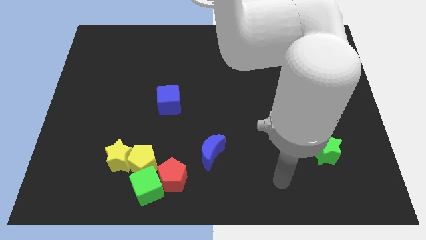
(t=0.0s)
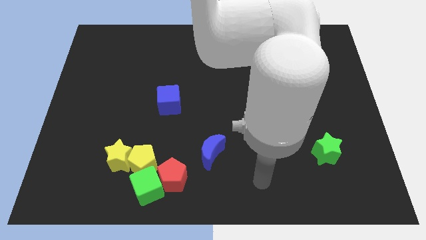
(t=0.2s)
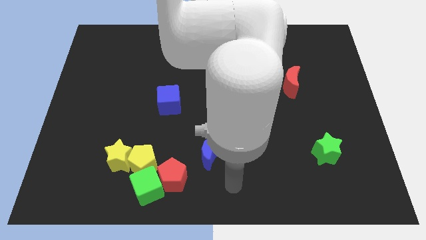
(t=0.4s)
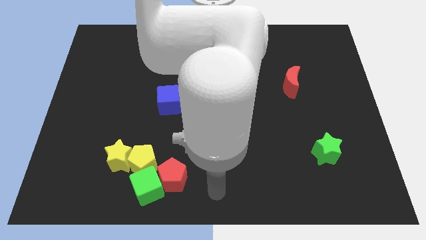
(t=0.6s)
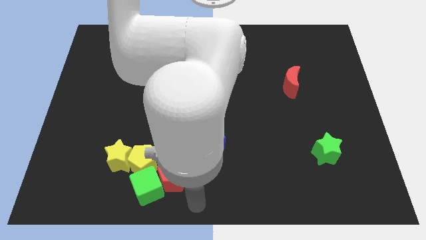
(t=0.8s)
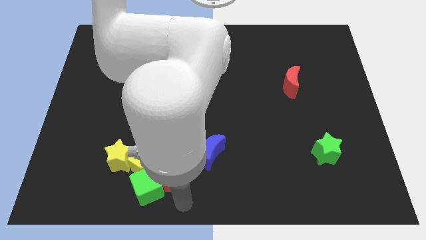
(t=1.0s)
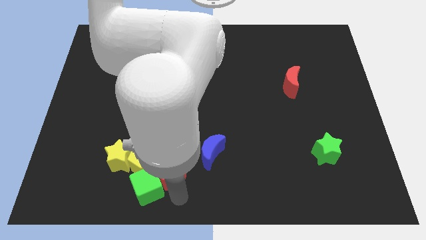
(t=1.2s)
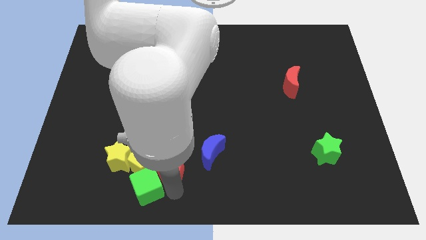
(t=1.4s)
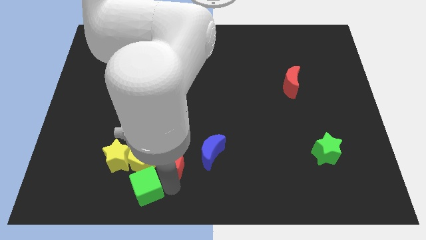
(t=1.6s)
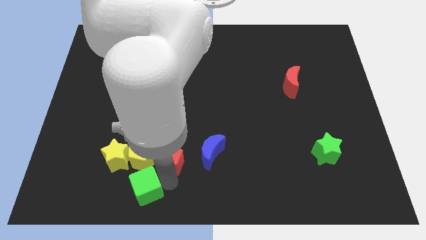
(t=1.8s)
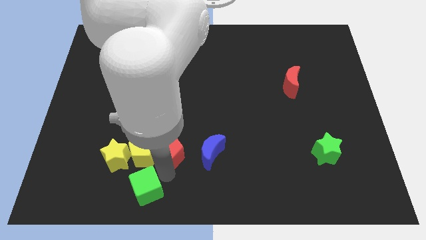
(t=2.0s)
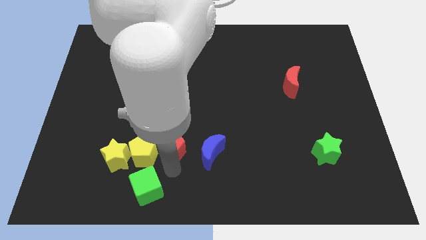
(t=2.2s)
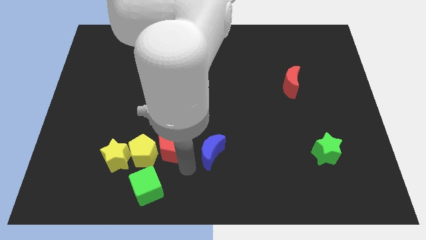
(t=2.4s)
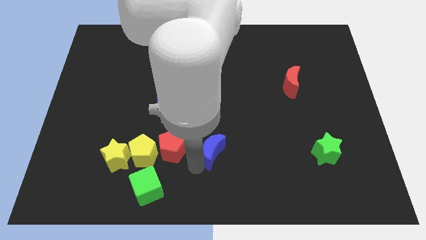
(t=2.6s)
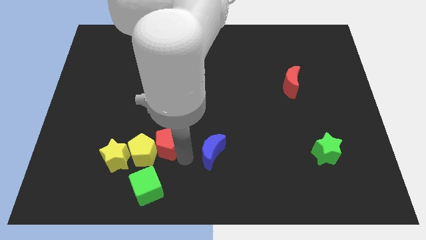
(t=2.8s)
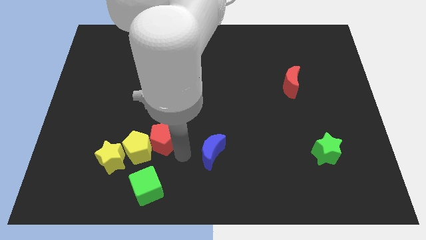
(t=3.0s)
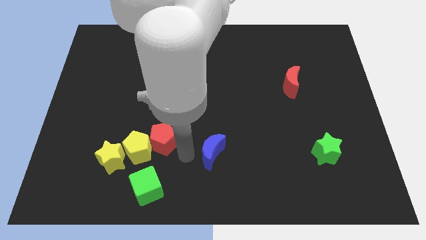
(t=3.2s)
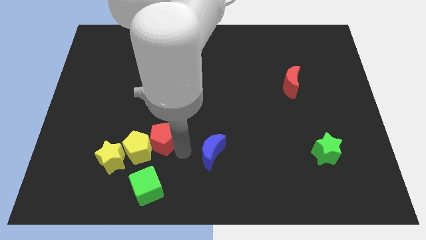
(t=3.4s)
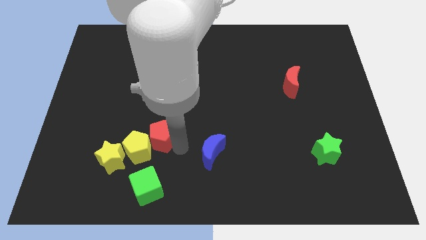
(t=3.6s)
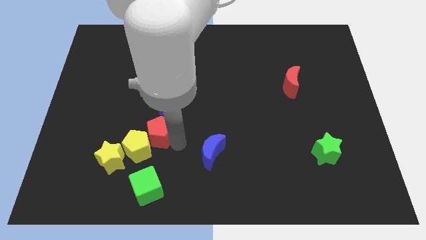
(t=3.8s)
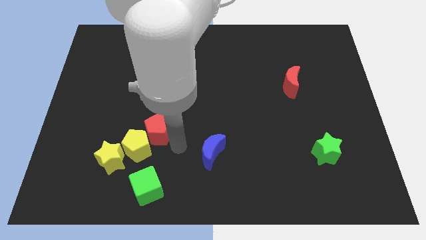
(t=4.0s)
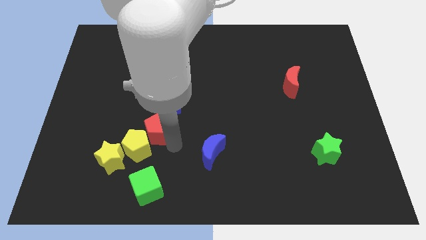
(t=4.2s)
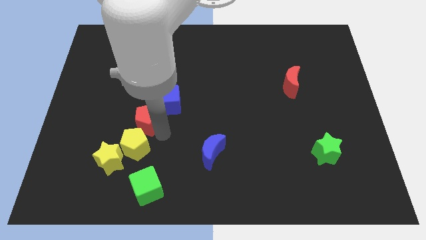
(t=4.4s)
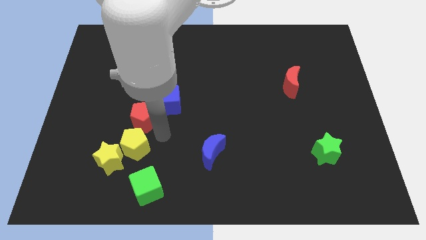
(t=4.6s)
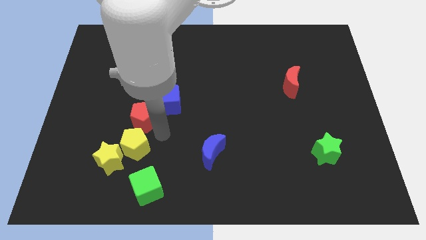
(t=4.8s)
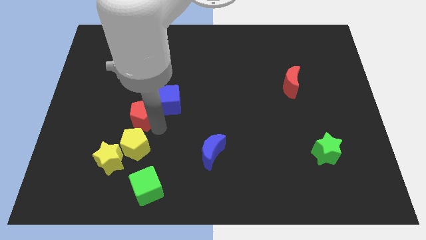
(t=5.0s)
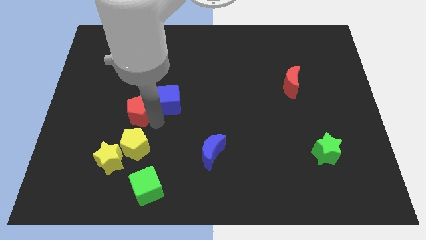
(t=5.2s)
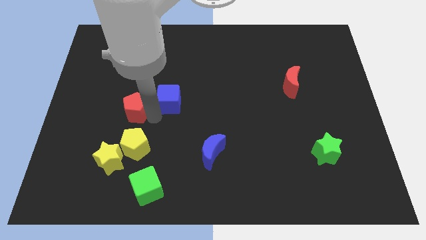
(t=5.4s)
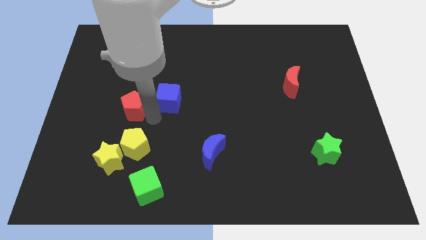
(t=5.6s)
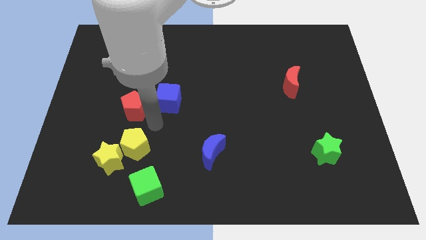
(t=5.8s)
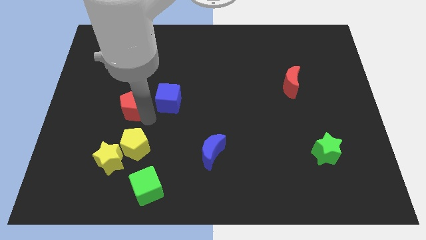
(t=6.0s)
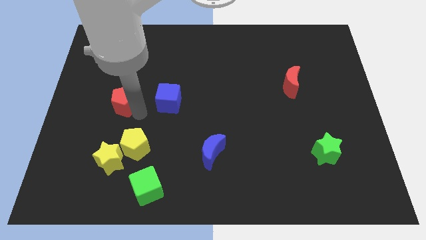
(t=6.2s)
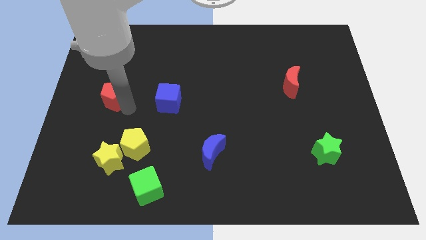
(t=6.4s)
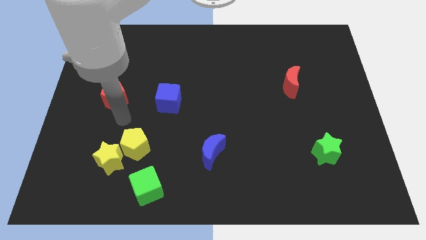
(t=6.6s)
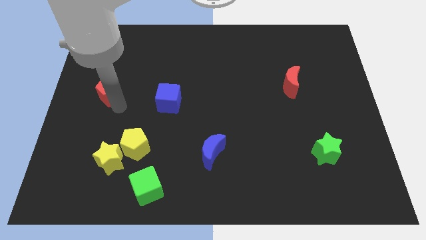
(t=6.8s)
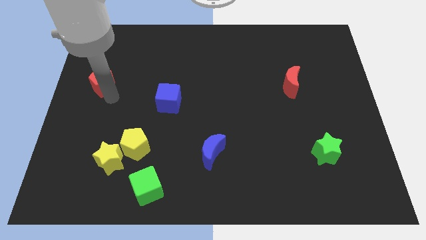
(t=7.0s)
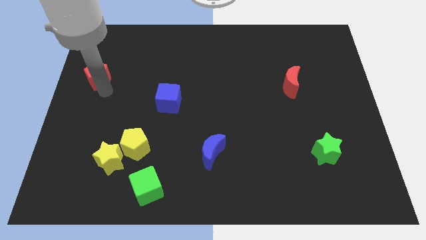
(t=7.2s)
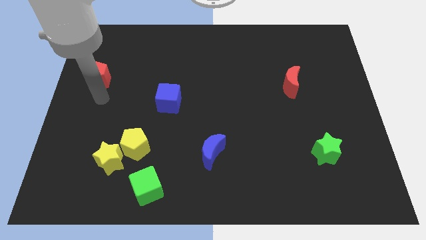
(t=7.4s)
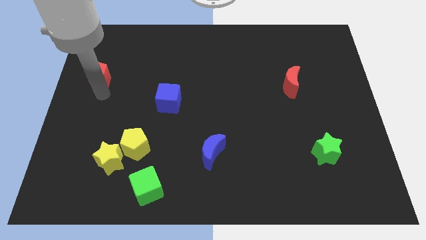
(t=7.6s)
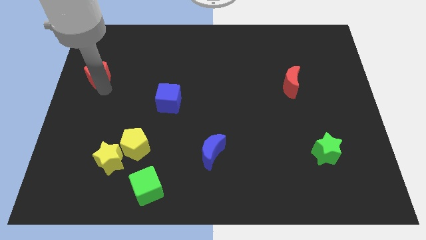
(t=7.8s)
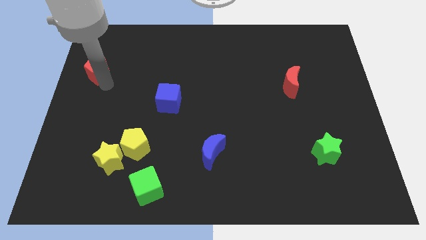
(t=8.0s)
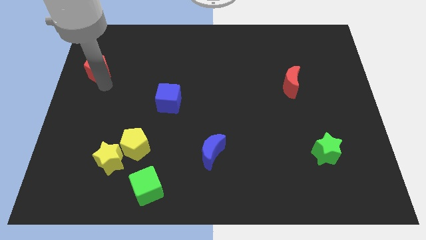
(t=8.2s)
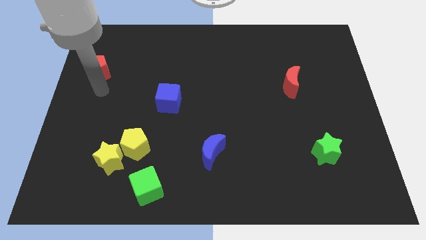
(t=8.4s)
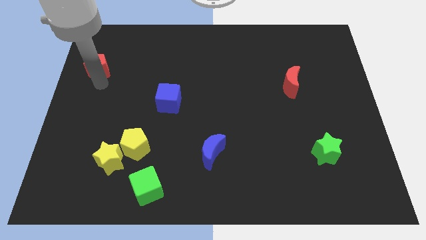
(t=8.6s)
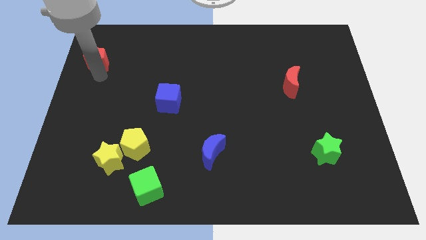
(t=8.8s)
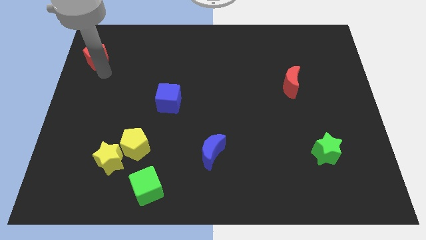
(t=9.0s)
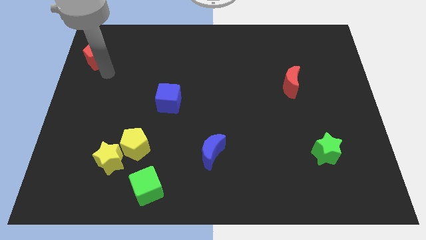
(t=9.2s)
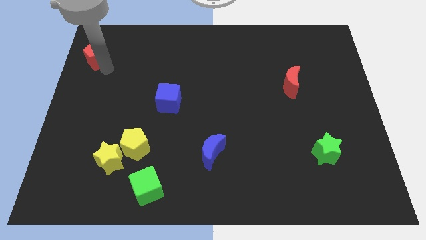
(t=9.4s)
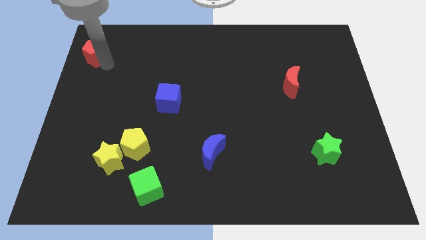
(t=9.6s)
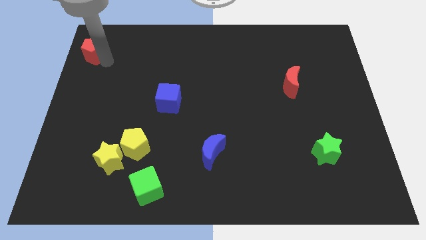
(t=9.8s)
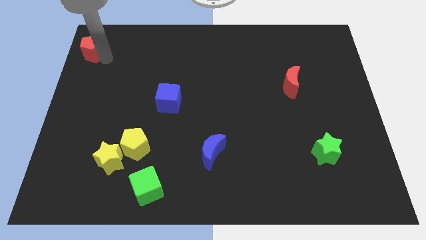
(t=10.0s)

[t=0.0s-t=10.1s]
move the red pentagon to the top left

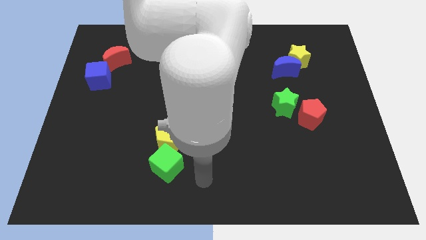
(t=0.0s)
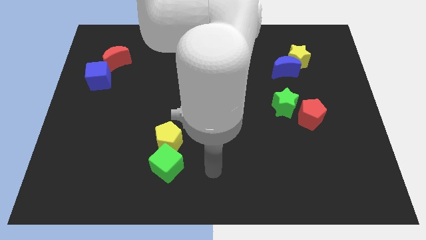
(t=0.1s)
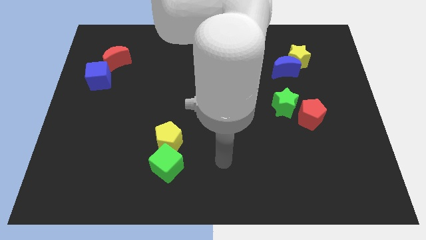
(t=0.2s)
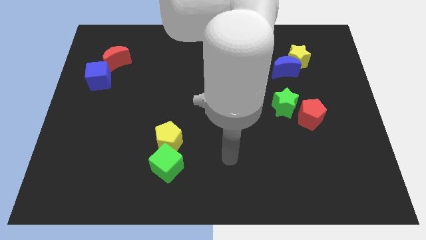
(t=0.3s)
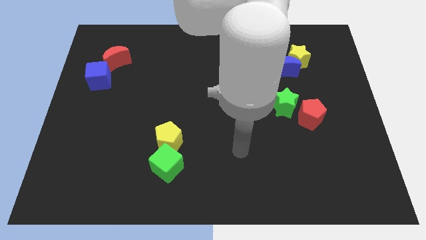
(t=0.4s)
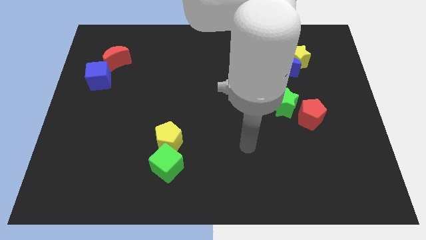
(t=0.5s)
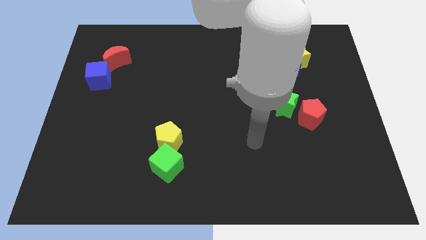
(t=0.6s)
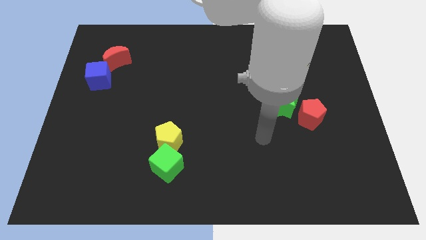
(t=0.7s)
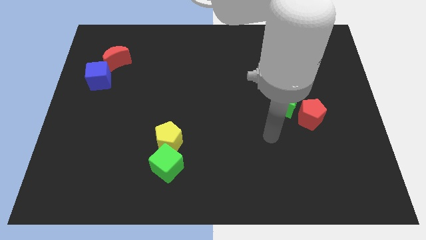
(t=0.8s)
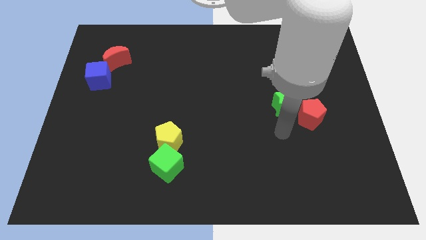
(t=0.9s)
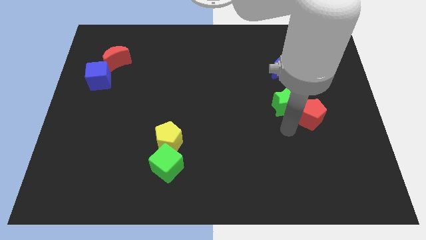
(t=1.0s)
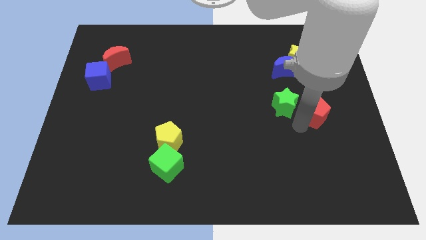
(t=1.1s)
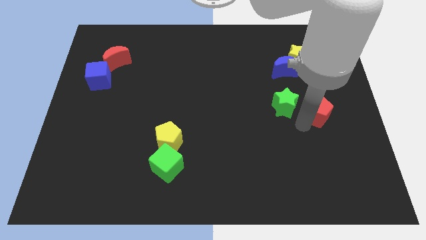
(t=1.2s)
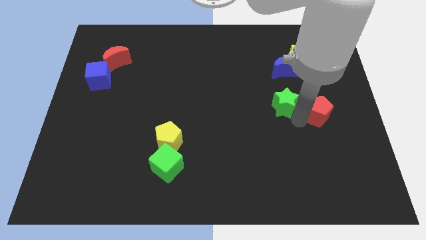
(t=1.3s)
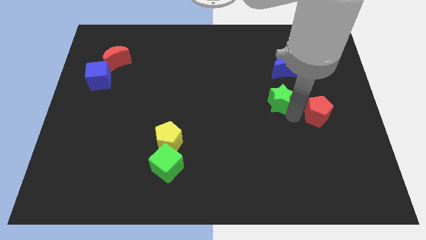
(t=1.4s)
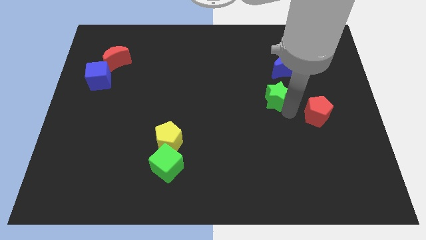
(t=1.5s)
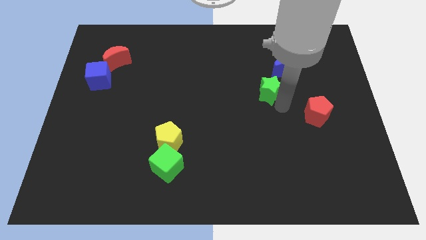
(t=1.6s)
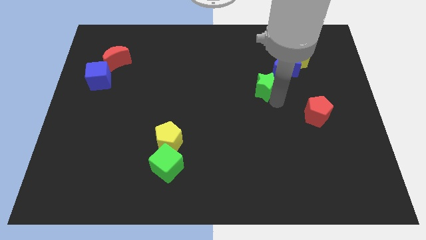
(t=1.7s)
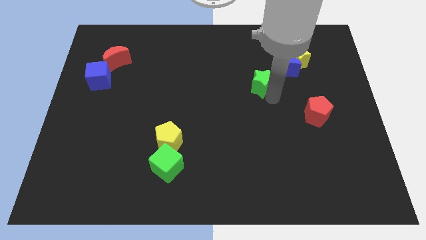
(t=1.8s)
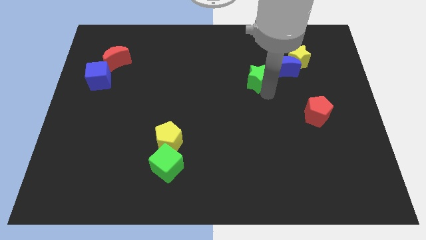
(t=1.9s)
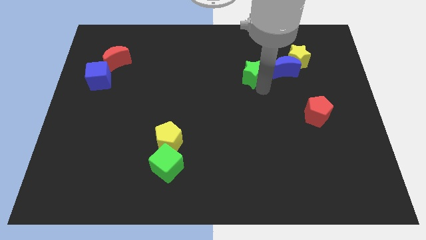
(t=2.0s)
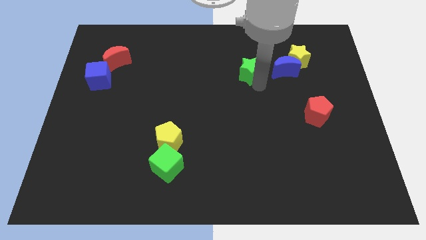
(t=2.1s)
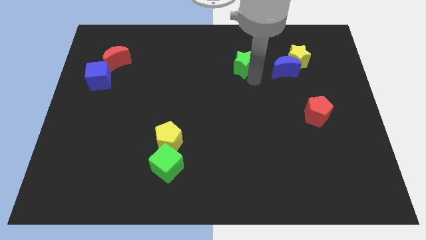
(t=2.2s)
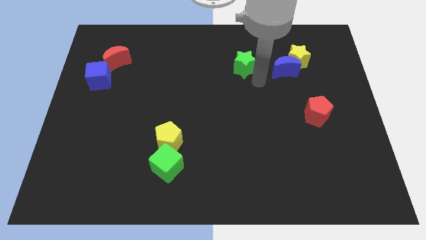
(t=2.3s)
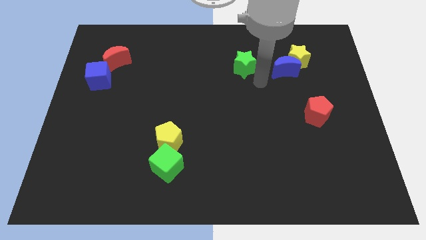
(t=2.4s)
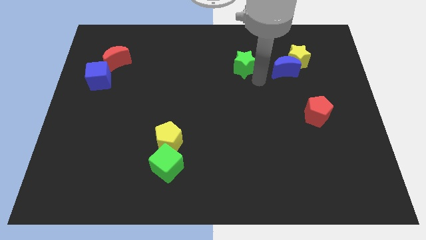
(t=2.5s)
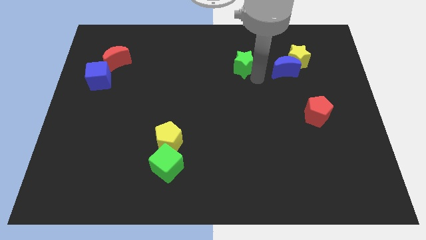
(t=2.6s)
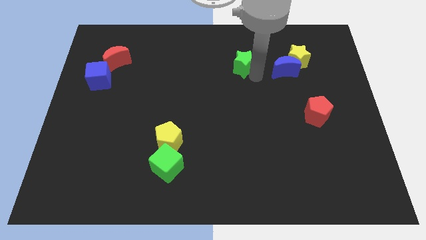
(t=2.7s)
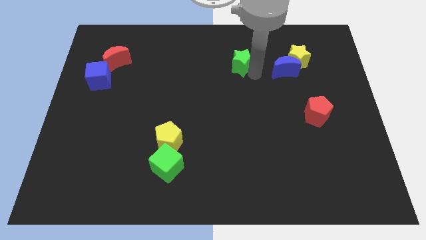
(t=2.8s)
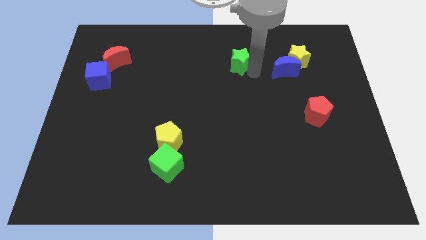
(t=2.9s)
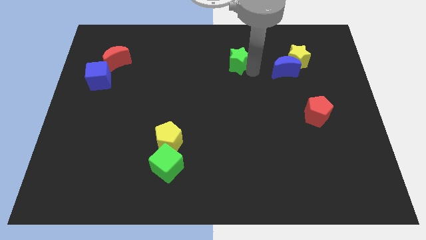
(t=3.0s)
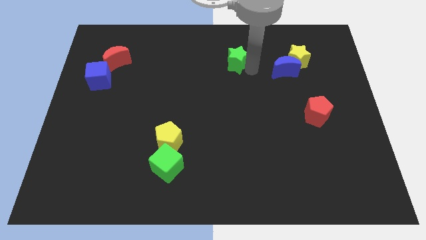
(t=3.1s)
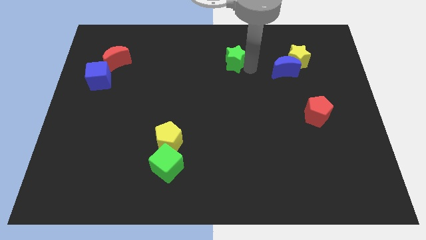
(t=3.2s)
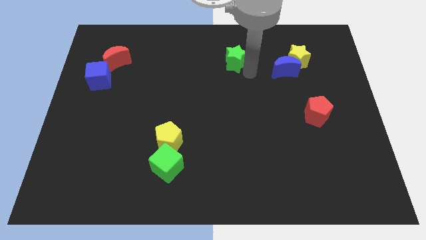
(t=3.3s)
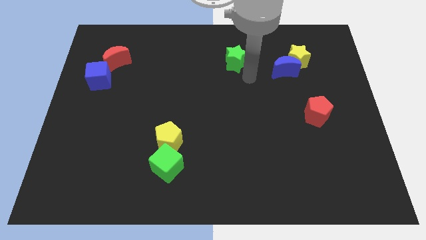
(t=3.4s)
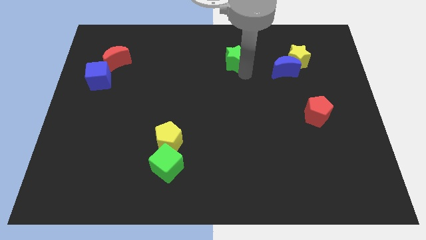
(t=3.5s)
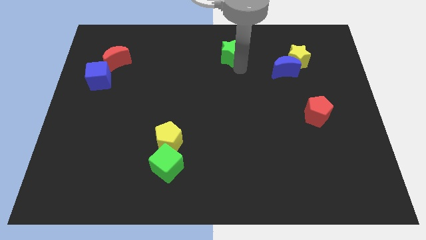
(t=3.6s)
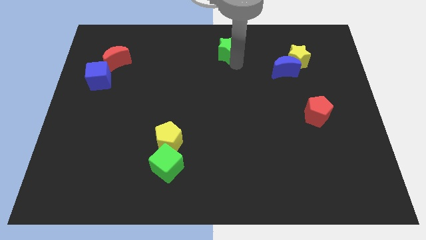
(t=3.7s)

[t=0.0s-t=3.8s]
push the green star to the towards your base
